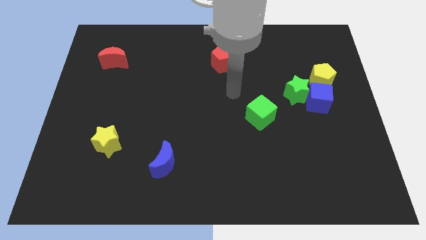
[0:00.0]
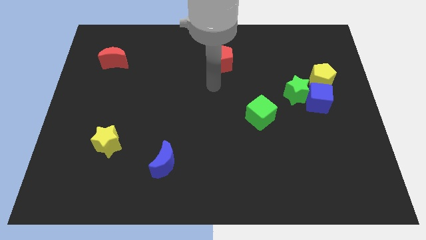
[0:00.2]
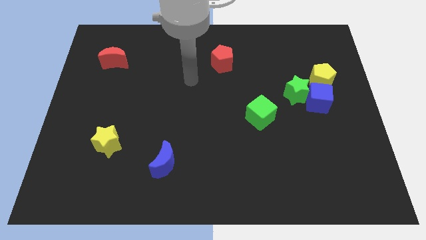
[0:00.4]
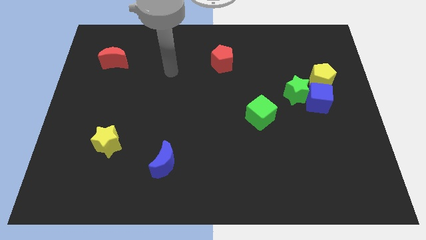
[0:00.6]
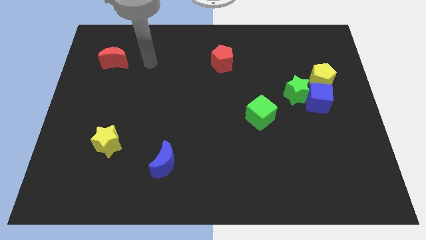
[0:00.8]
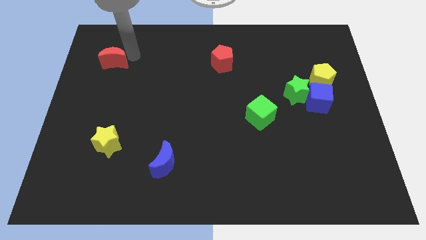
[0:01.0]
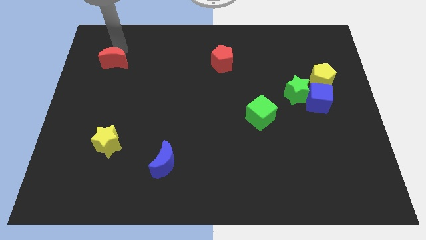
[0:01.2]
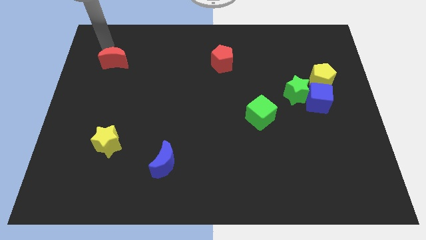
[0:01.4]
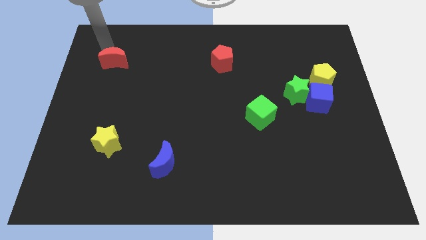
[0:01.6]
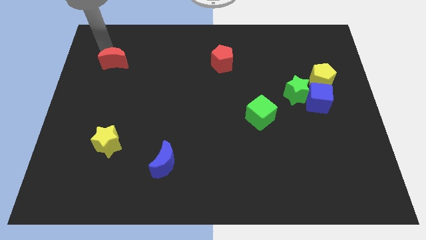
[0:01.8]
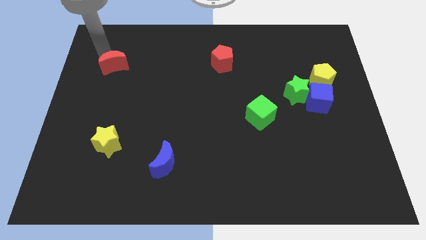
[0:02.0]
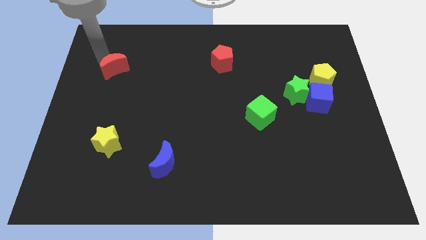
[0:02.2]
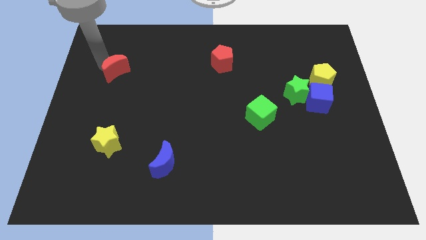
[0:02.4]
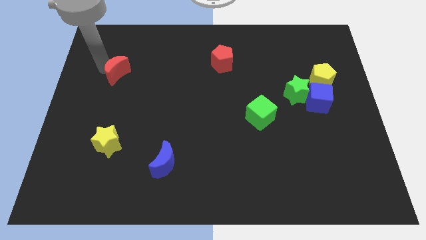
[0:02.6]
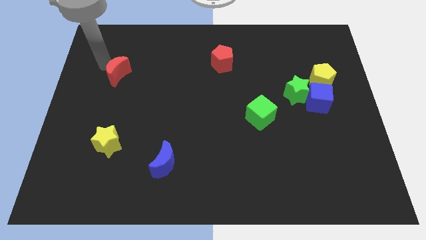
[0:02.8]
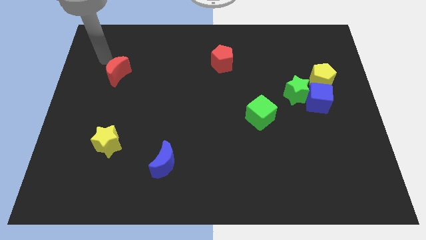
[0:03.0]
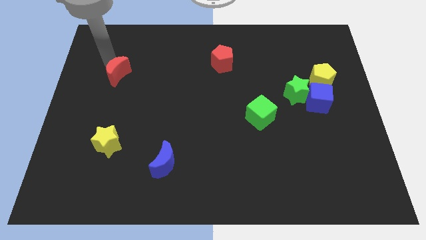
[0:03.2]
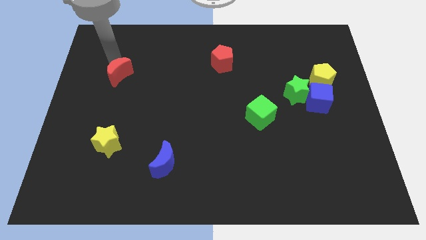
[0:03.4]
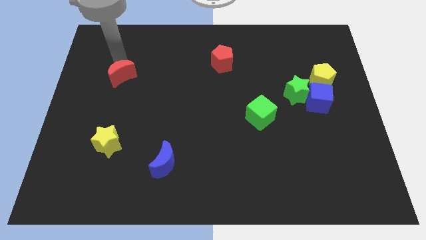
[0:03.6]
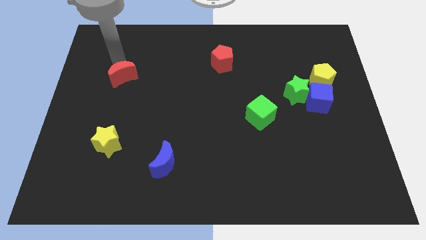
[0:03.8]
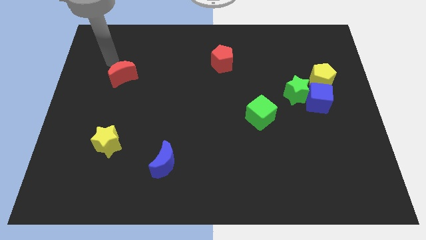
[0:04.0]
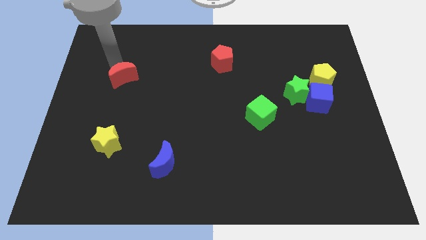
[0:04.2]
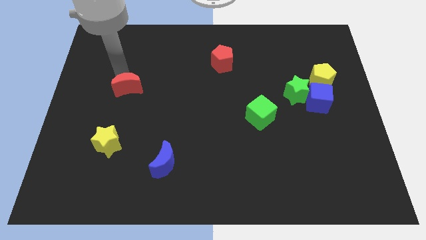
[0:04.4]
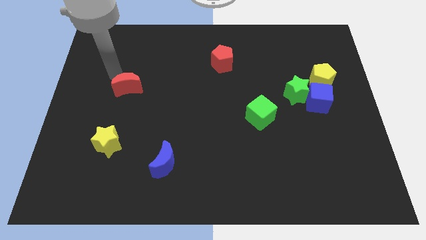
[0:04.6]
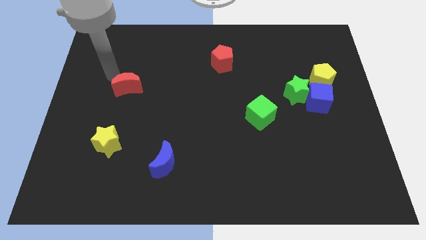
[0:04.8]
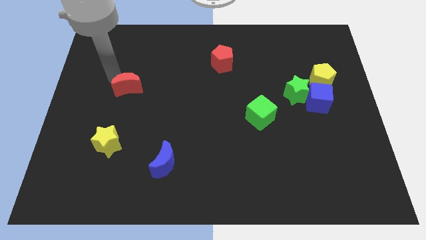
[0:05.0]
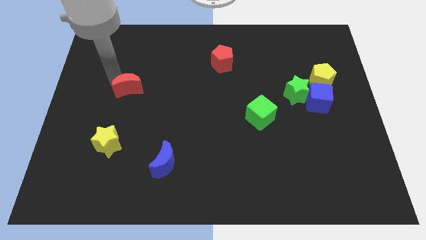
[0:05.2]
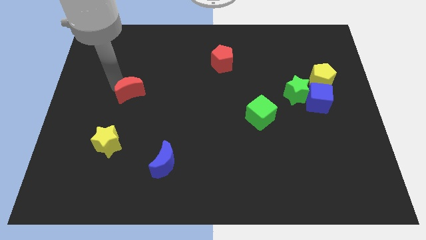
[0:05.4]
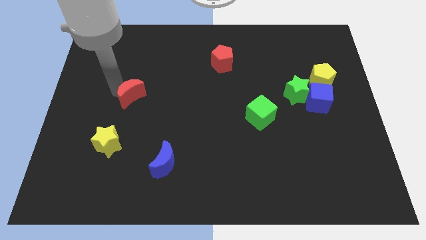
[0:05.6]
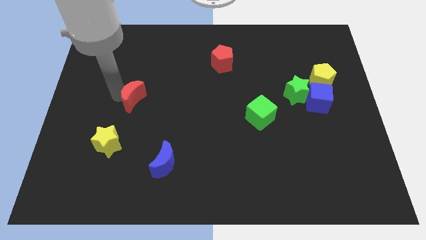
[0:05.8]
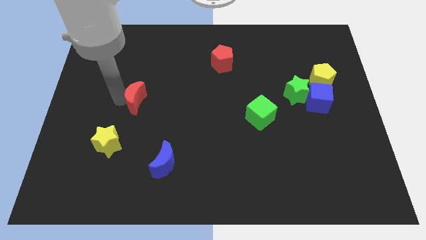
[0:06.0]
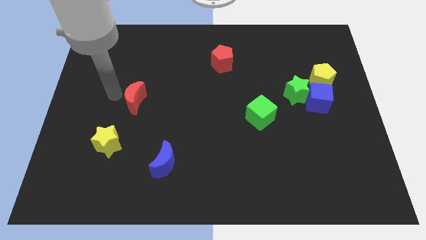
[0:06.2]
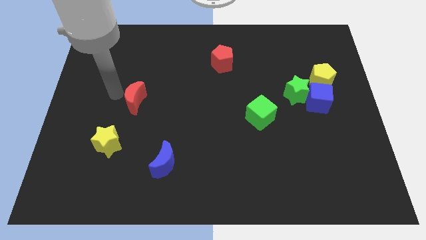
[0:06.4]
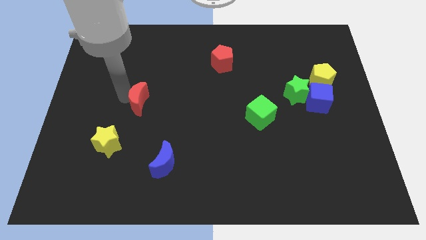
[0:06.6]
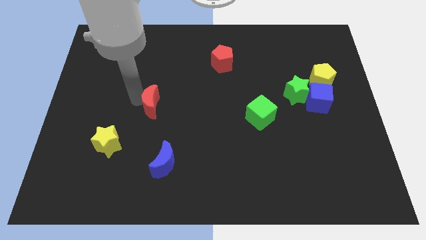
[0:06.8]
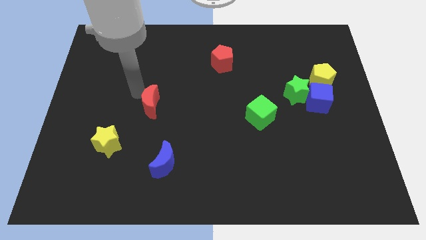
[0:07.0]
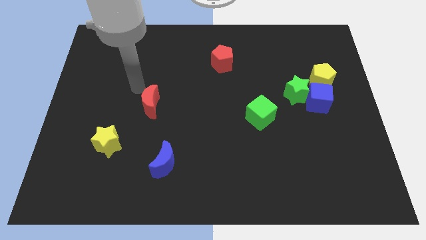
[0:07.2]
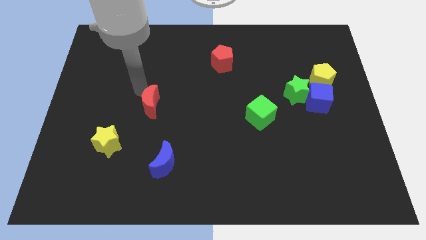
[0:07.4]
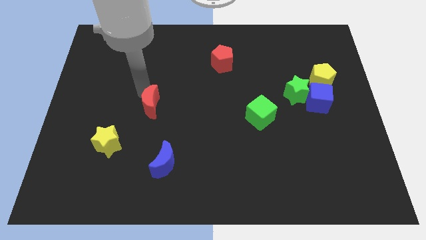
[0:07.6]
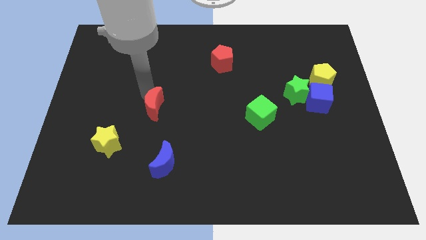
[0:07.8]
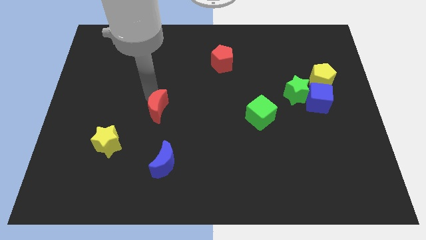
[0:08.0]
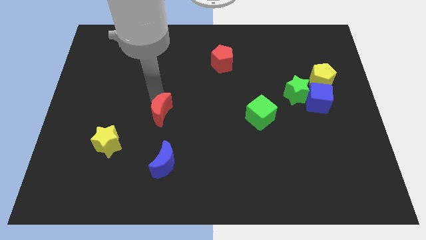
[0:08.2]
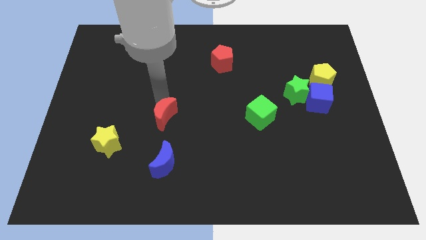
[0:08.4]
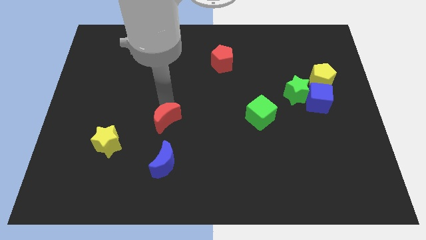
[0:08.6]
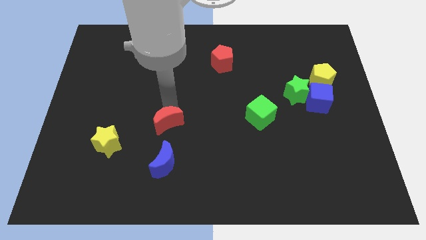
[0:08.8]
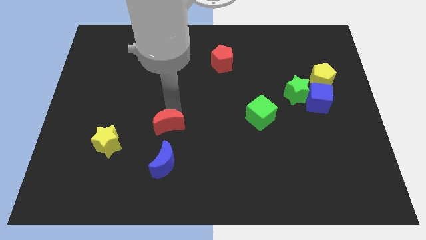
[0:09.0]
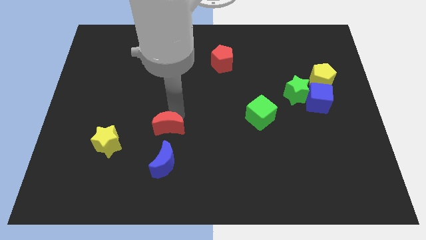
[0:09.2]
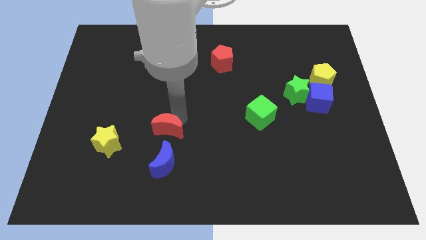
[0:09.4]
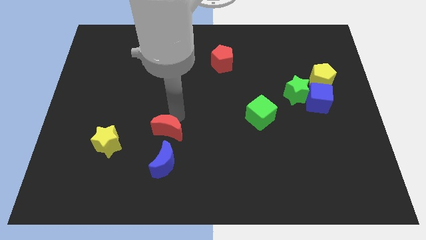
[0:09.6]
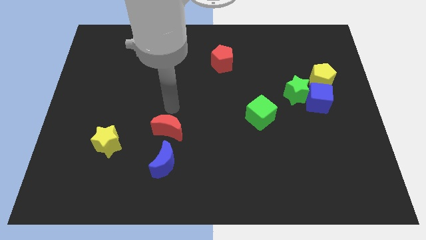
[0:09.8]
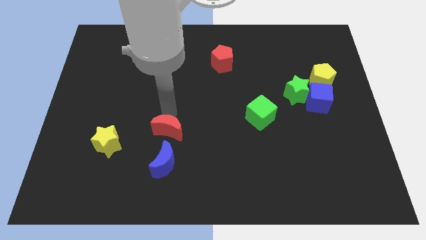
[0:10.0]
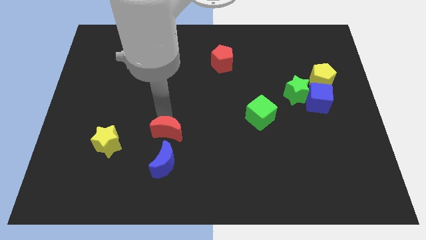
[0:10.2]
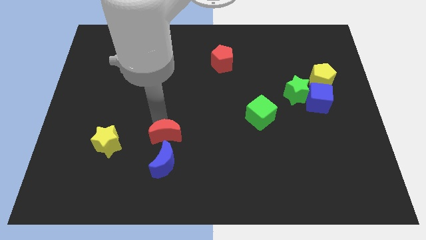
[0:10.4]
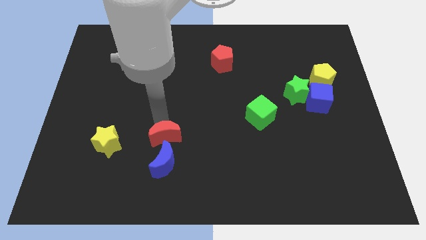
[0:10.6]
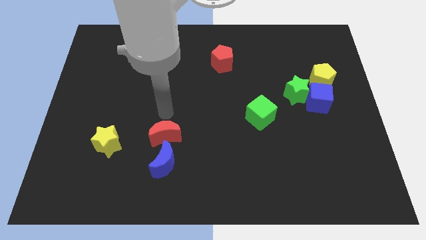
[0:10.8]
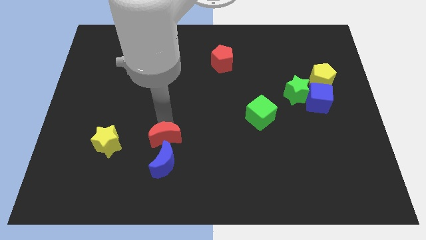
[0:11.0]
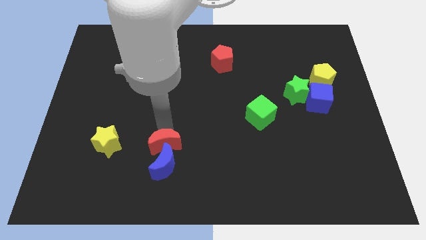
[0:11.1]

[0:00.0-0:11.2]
push the red moon next to the blue moon

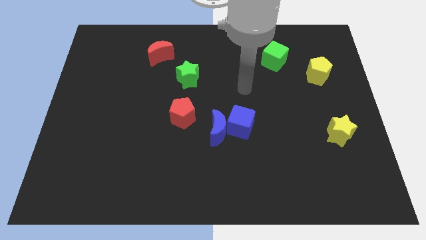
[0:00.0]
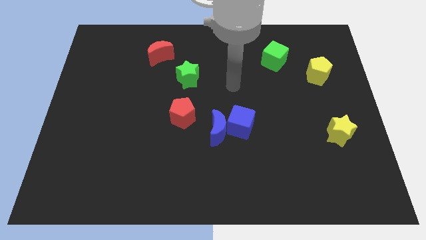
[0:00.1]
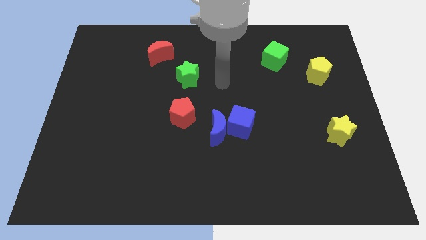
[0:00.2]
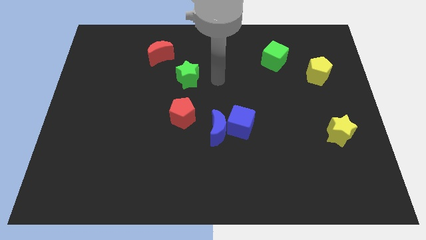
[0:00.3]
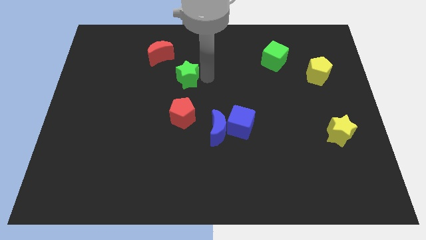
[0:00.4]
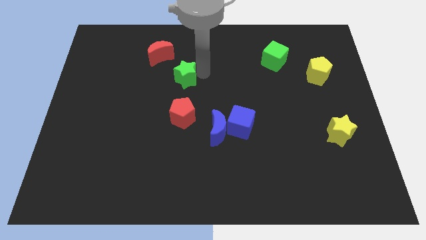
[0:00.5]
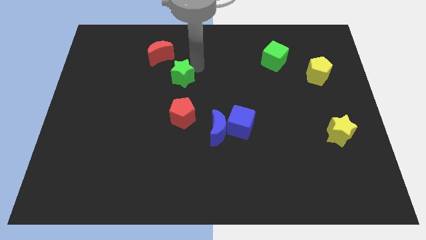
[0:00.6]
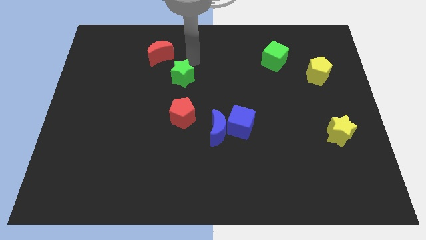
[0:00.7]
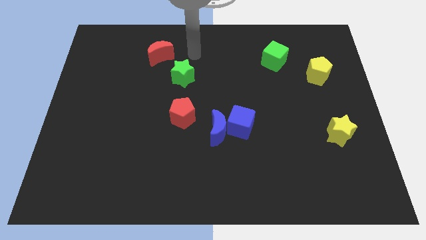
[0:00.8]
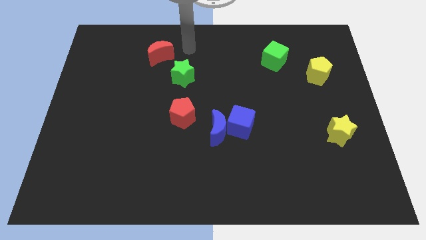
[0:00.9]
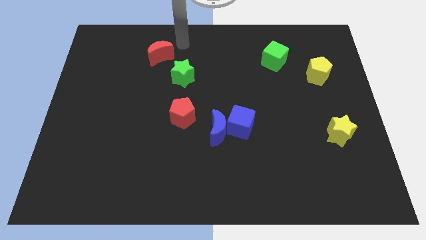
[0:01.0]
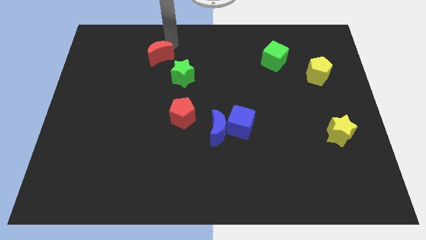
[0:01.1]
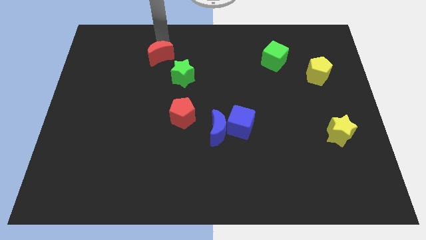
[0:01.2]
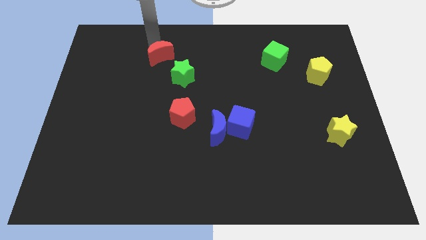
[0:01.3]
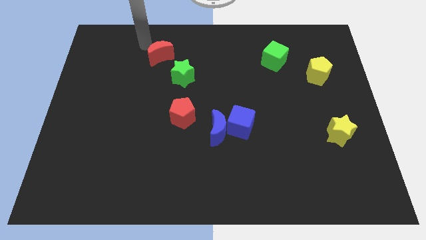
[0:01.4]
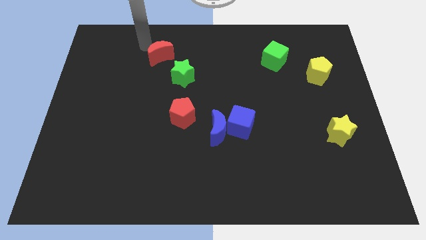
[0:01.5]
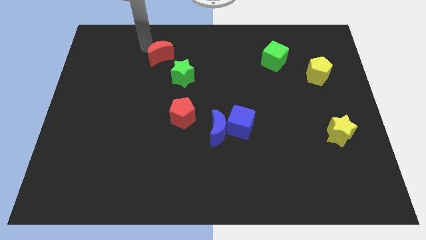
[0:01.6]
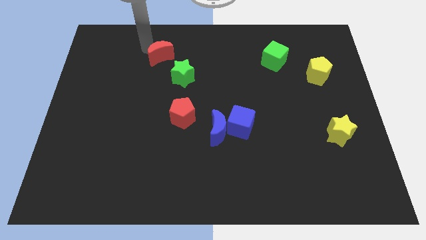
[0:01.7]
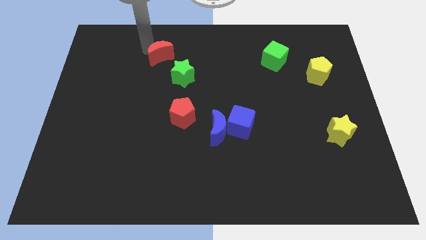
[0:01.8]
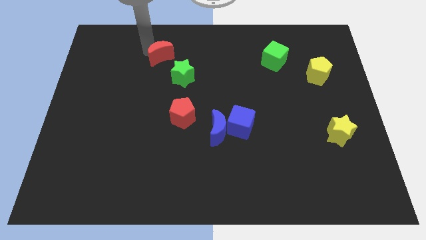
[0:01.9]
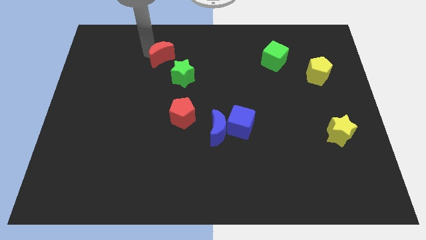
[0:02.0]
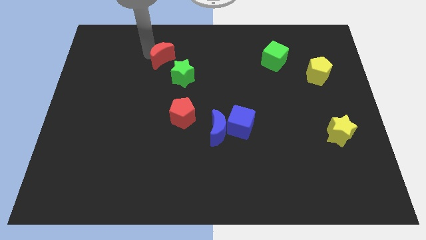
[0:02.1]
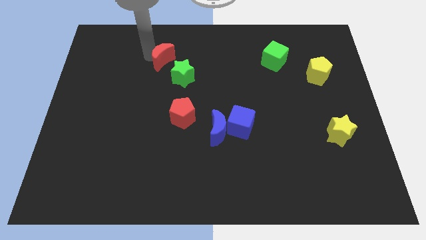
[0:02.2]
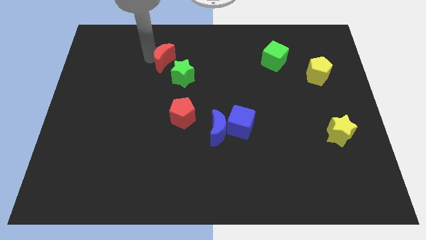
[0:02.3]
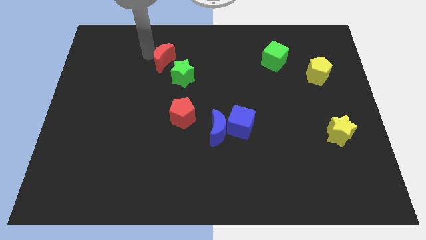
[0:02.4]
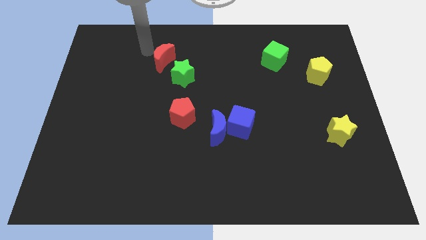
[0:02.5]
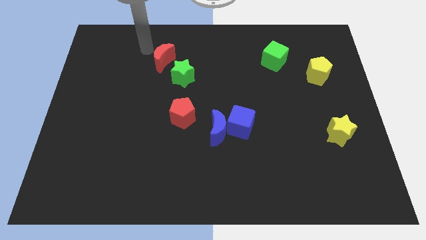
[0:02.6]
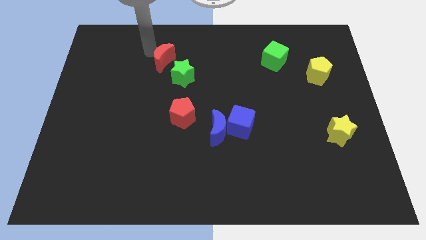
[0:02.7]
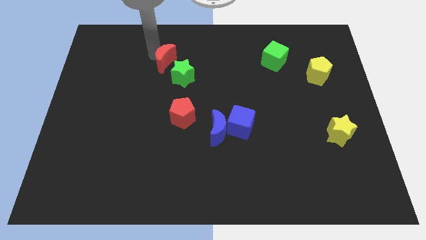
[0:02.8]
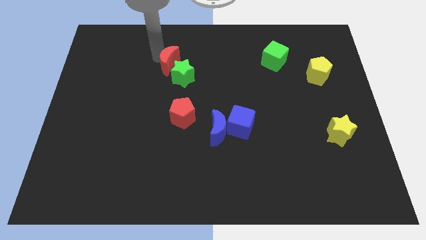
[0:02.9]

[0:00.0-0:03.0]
put the red moon next to the green star
